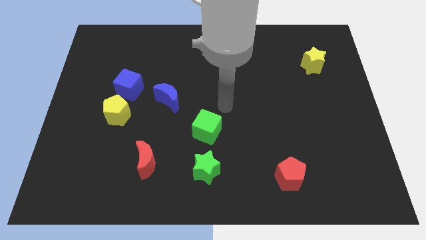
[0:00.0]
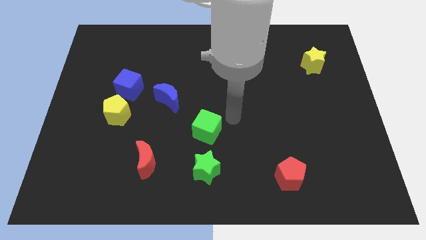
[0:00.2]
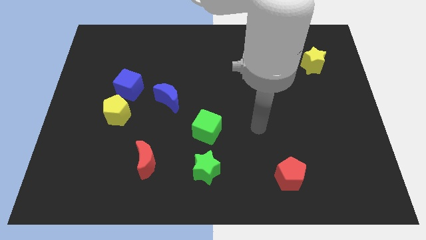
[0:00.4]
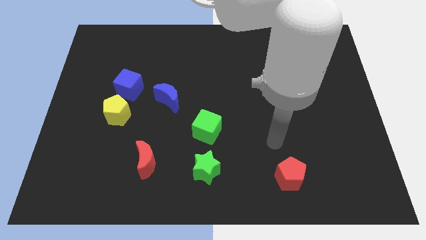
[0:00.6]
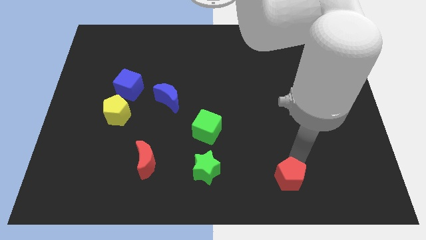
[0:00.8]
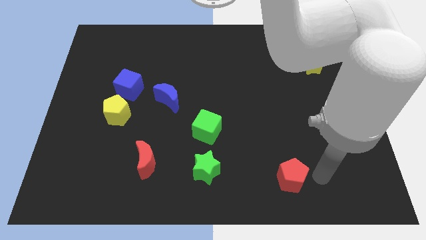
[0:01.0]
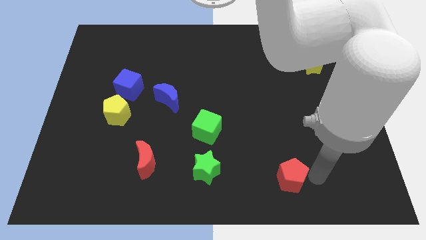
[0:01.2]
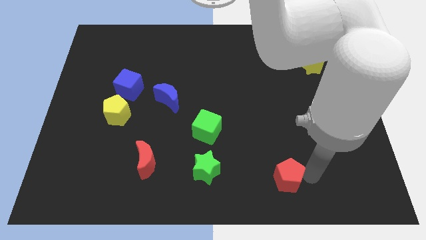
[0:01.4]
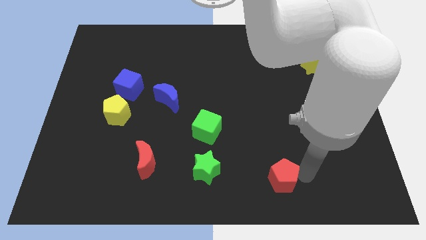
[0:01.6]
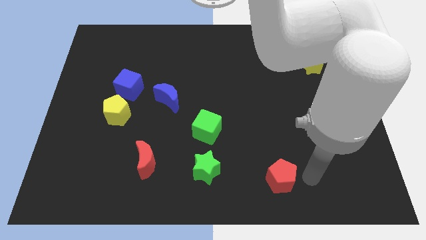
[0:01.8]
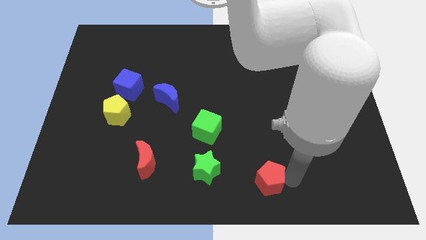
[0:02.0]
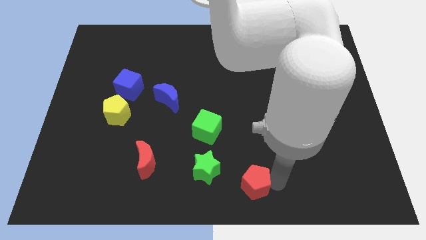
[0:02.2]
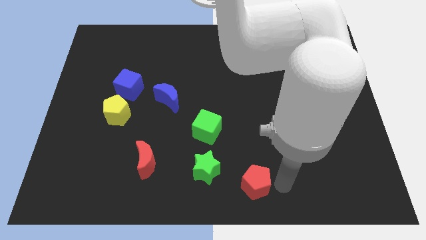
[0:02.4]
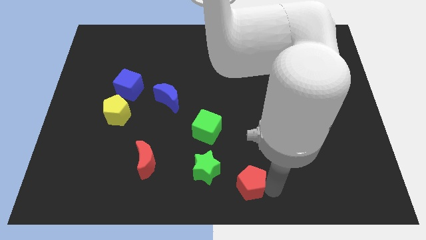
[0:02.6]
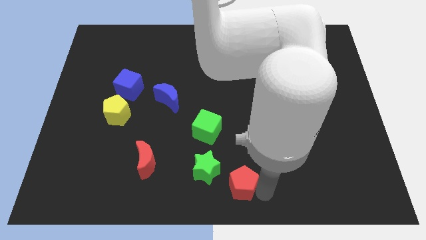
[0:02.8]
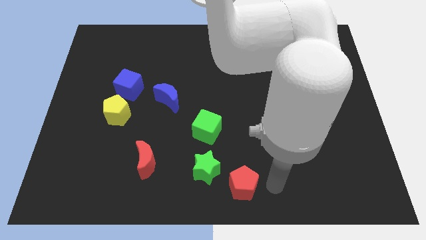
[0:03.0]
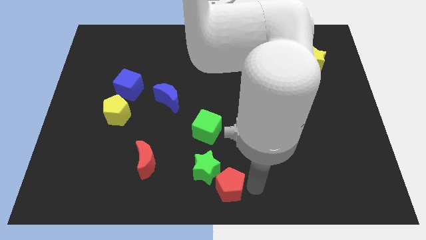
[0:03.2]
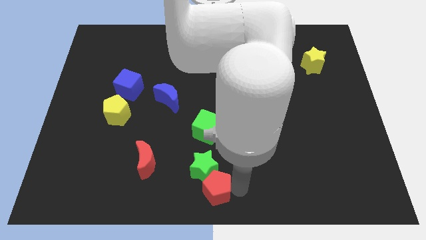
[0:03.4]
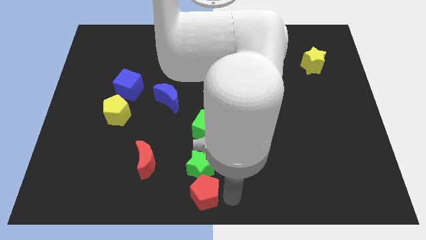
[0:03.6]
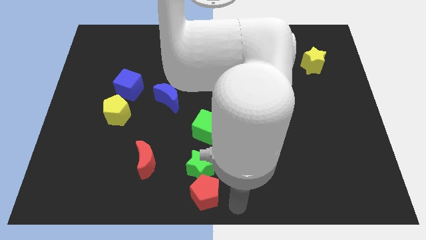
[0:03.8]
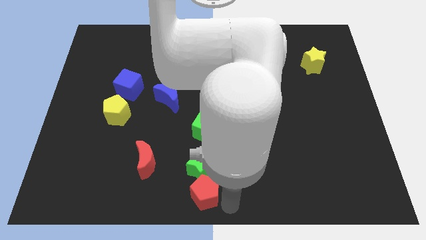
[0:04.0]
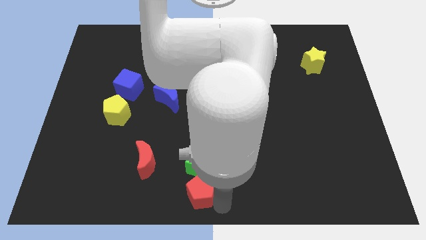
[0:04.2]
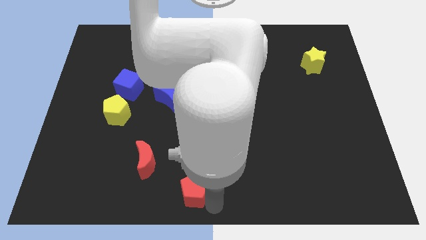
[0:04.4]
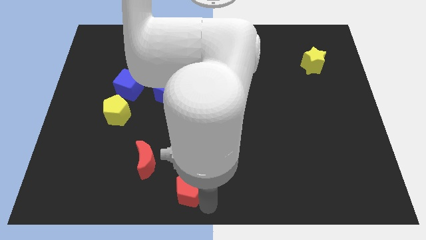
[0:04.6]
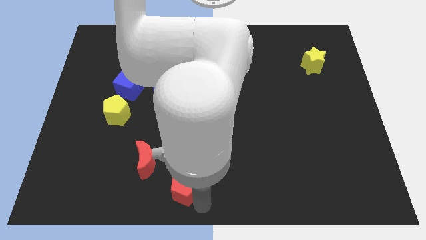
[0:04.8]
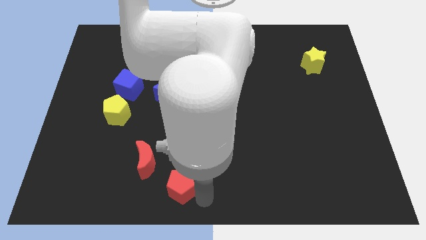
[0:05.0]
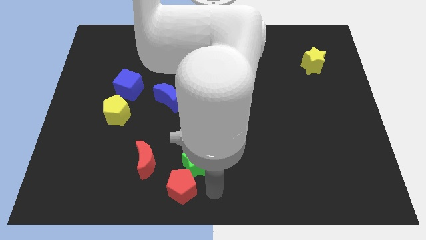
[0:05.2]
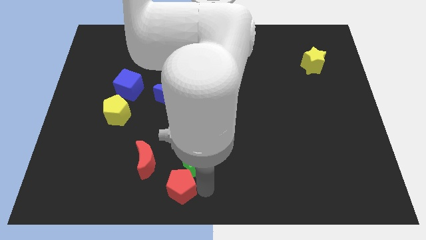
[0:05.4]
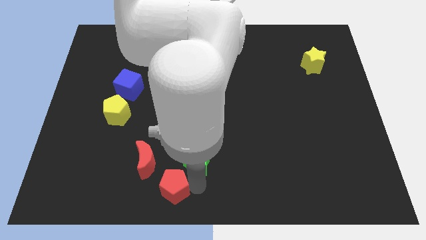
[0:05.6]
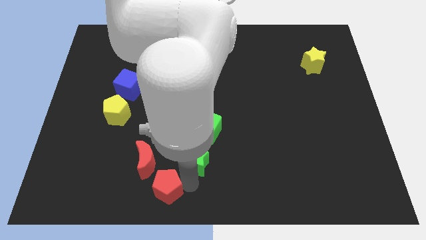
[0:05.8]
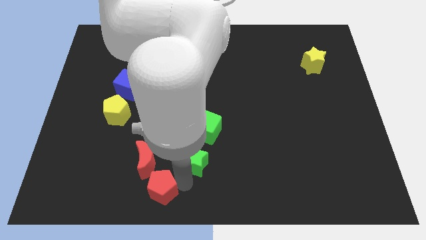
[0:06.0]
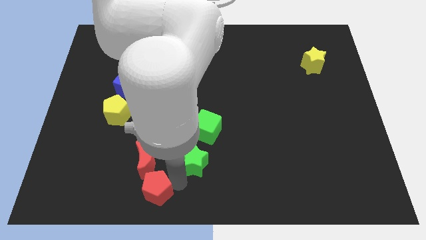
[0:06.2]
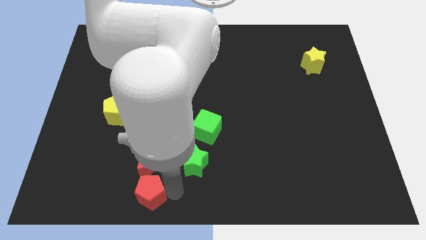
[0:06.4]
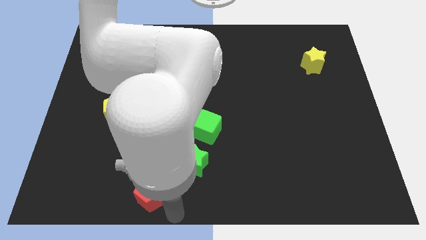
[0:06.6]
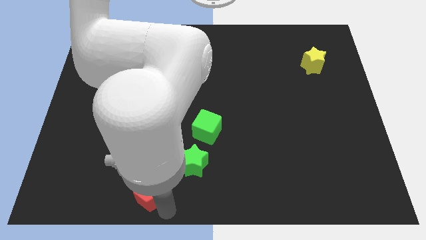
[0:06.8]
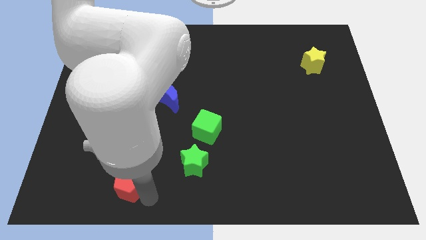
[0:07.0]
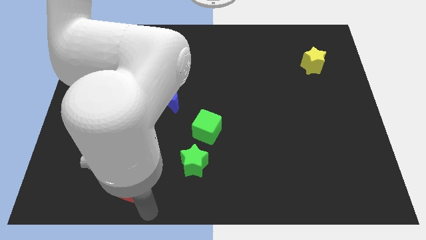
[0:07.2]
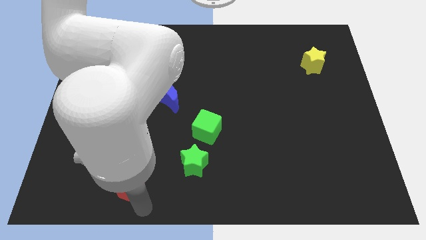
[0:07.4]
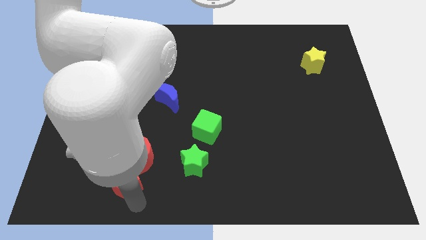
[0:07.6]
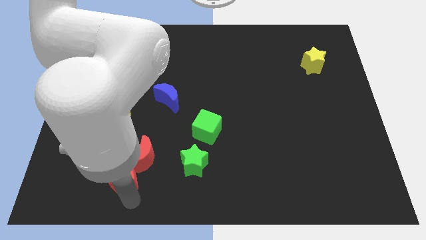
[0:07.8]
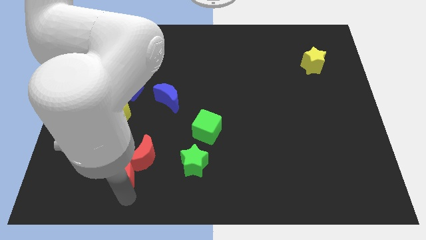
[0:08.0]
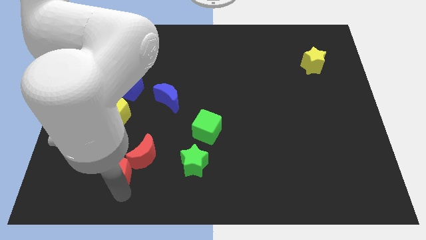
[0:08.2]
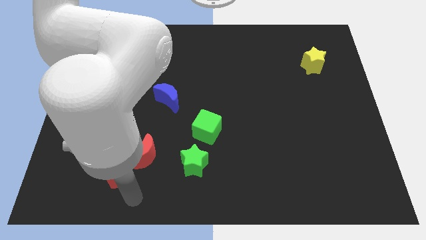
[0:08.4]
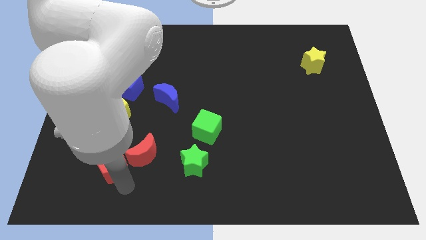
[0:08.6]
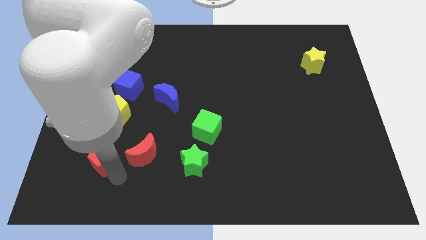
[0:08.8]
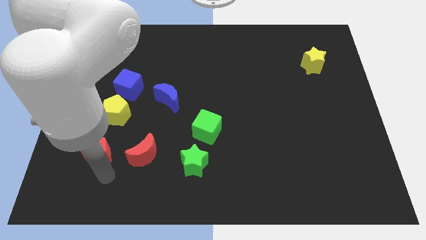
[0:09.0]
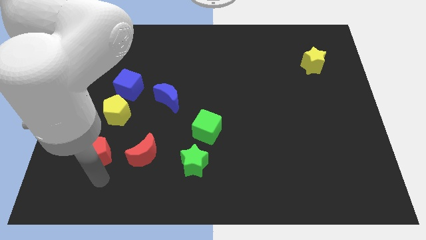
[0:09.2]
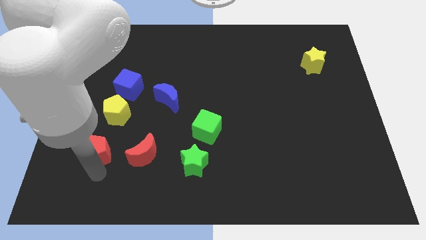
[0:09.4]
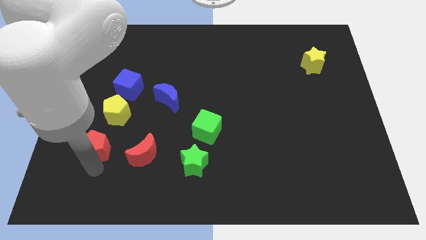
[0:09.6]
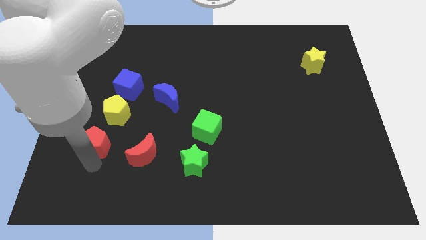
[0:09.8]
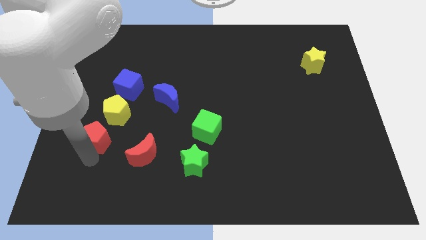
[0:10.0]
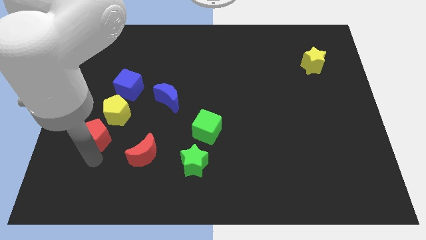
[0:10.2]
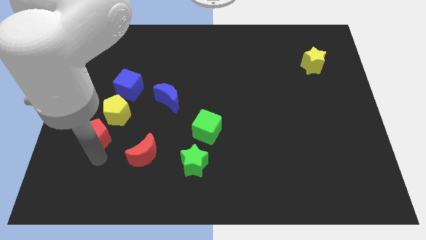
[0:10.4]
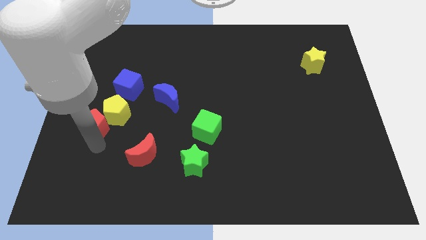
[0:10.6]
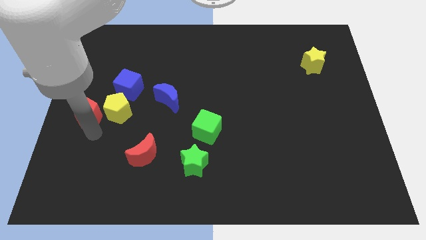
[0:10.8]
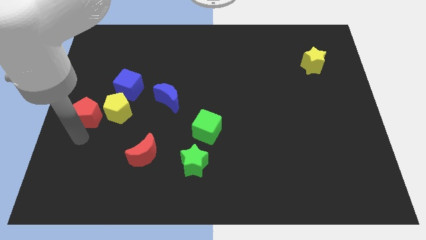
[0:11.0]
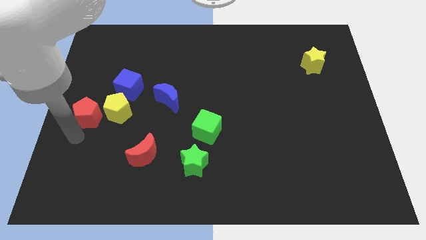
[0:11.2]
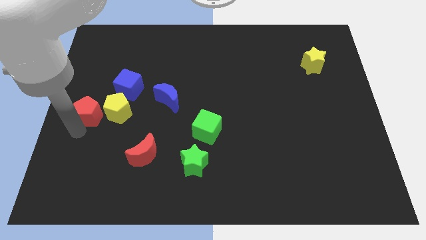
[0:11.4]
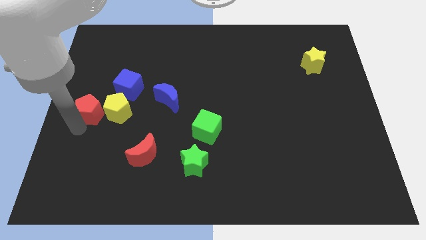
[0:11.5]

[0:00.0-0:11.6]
push the red pentagon to the top left of the yellow pentagon

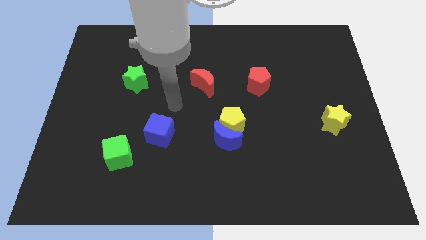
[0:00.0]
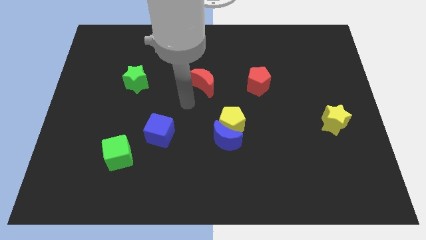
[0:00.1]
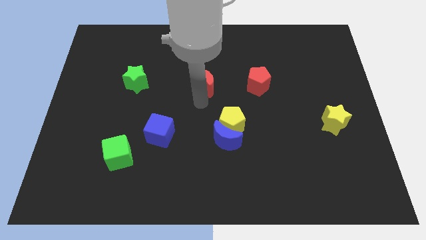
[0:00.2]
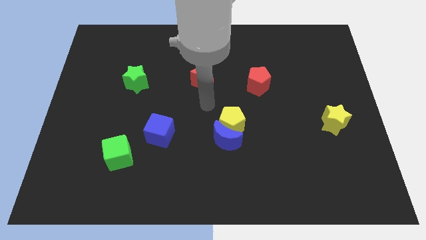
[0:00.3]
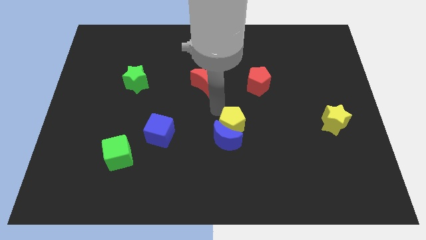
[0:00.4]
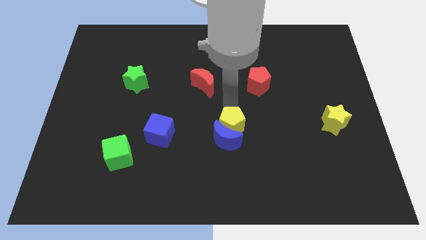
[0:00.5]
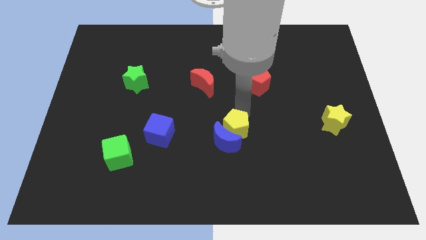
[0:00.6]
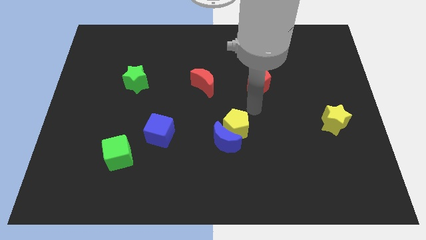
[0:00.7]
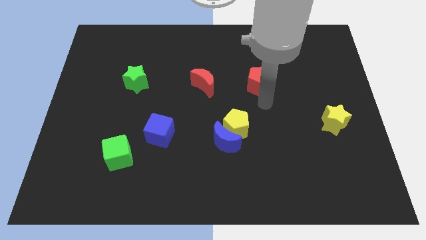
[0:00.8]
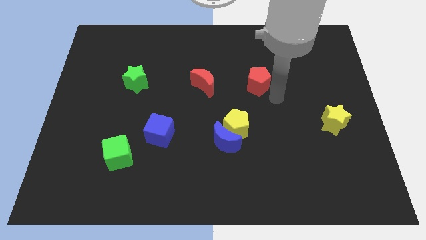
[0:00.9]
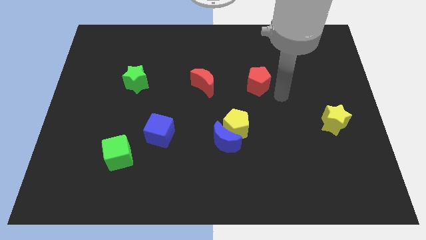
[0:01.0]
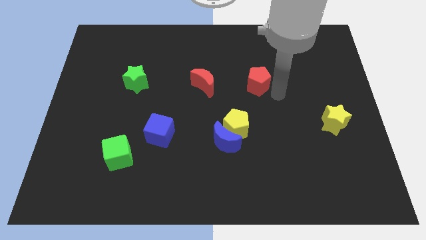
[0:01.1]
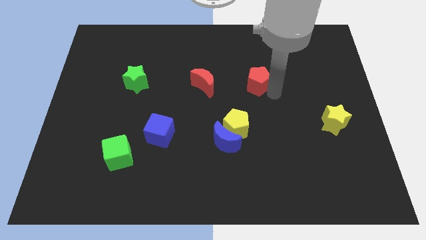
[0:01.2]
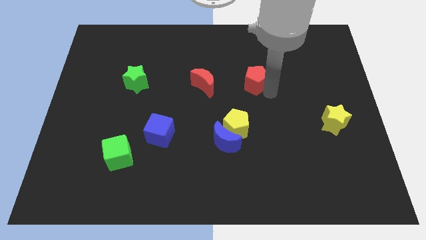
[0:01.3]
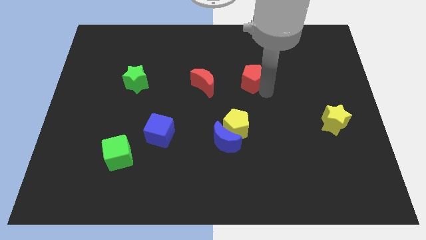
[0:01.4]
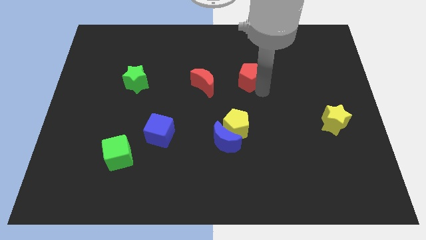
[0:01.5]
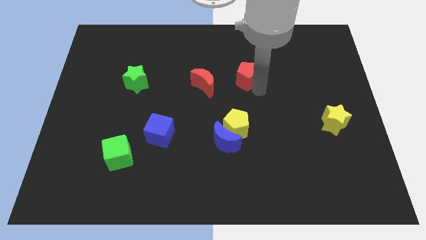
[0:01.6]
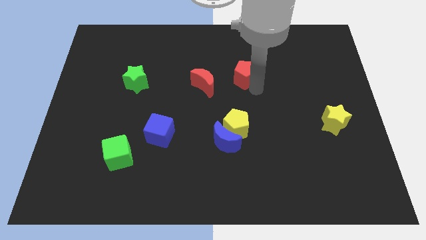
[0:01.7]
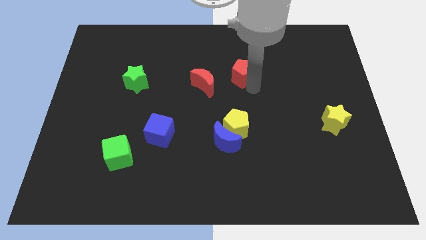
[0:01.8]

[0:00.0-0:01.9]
move the red pentagon to the top right side of the red moon
